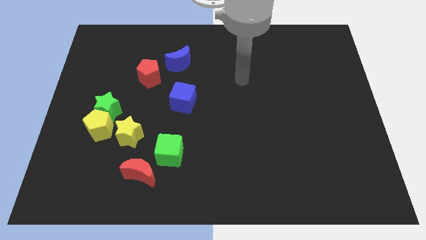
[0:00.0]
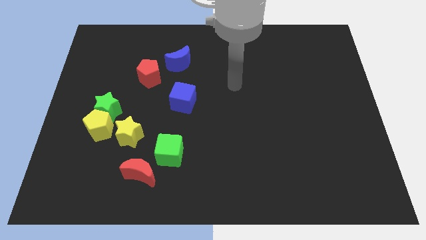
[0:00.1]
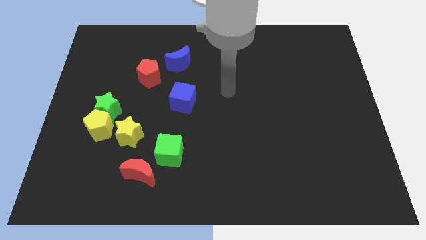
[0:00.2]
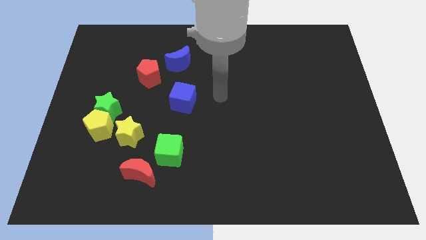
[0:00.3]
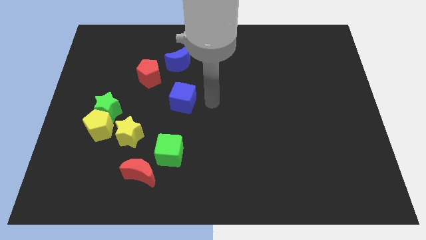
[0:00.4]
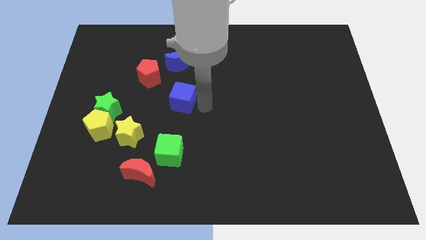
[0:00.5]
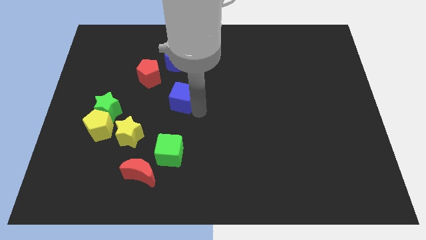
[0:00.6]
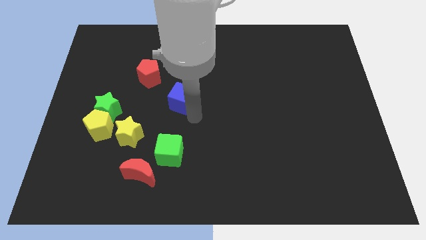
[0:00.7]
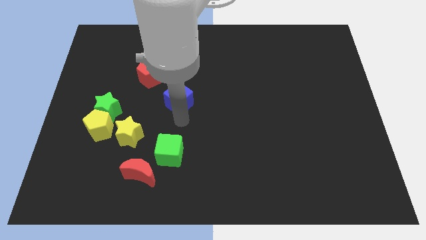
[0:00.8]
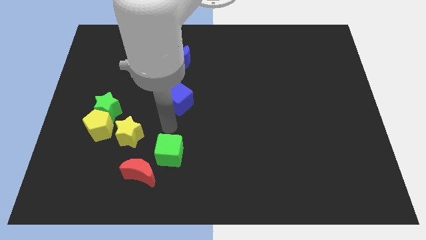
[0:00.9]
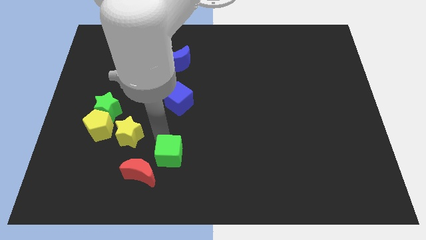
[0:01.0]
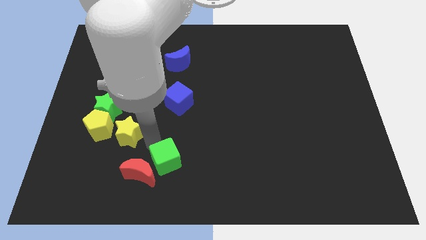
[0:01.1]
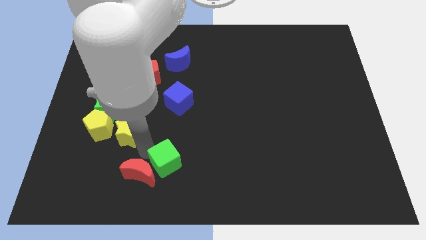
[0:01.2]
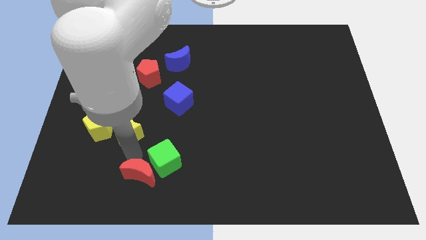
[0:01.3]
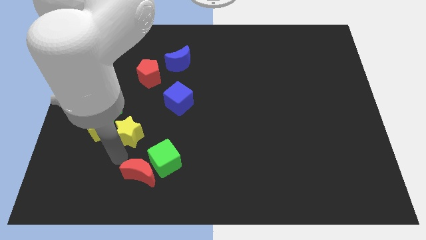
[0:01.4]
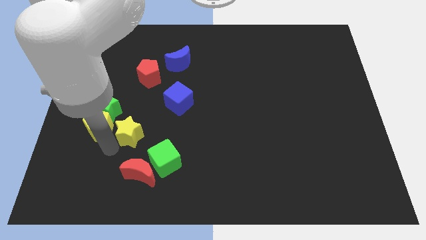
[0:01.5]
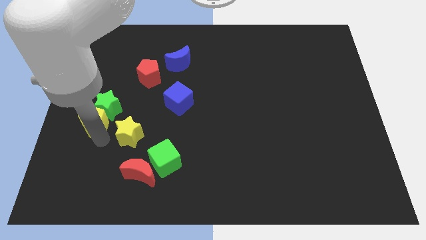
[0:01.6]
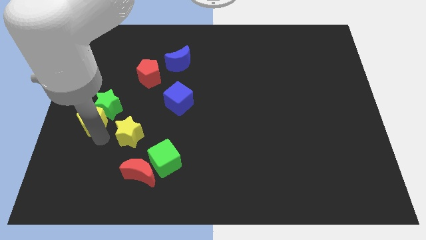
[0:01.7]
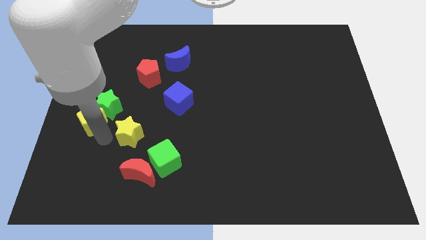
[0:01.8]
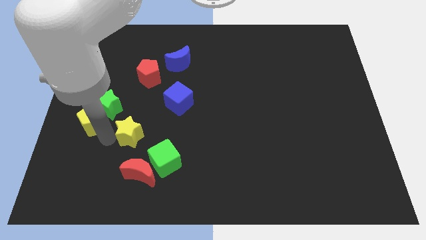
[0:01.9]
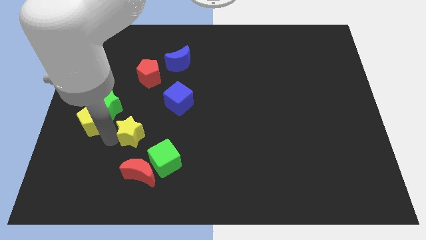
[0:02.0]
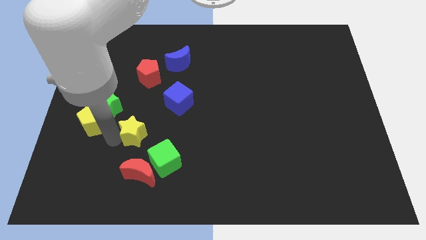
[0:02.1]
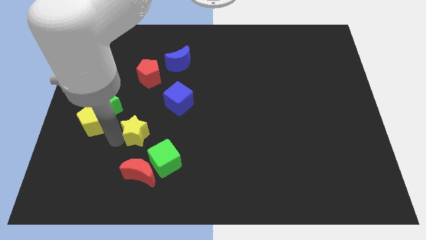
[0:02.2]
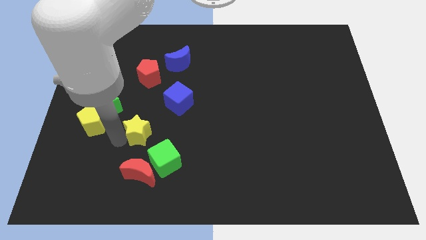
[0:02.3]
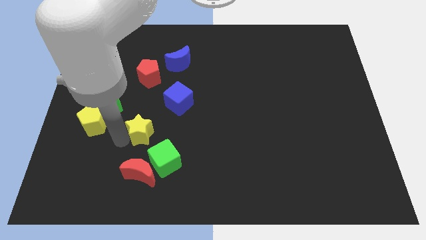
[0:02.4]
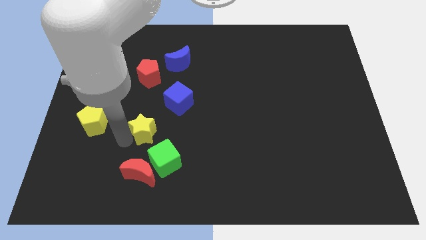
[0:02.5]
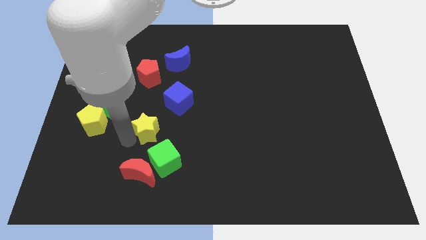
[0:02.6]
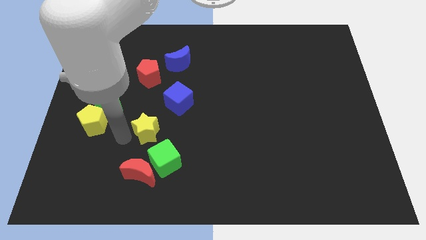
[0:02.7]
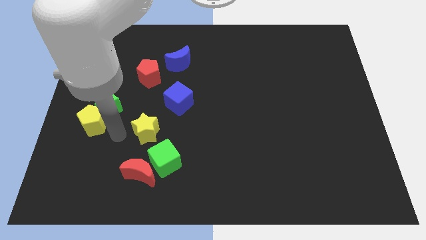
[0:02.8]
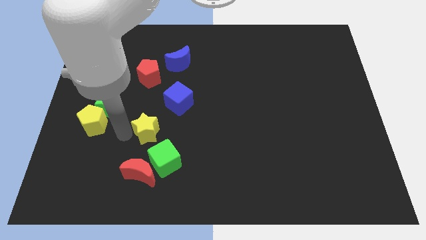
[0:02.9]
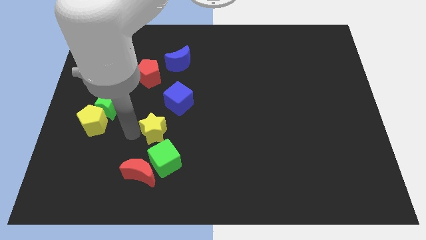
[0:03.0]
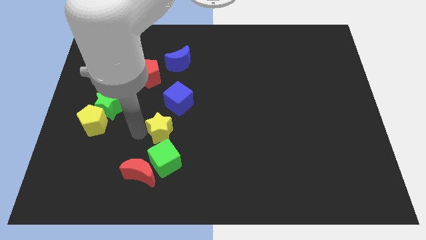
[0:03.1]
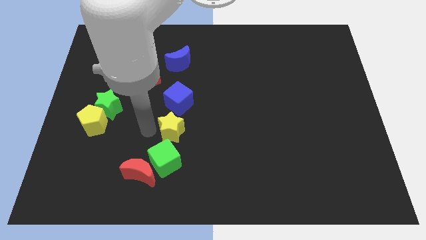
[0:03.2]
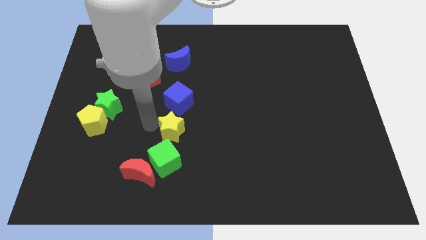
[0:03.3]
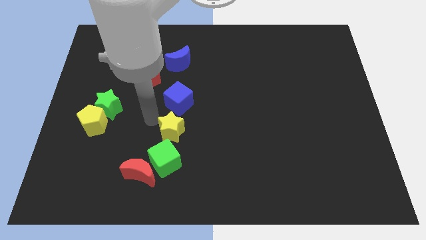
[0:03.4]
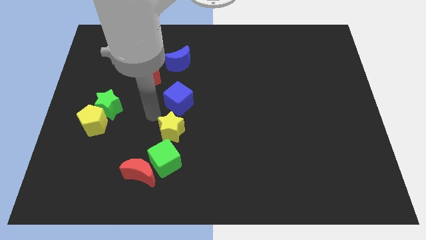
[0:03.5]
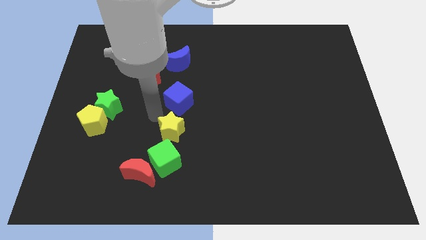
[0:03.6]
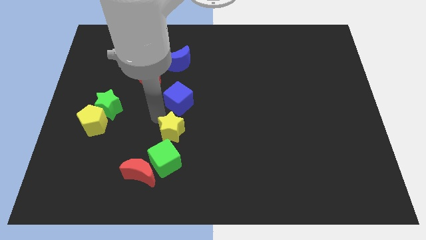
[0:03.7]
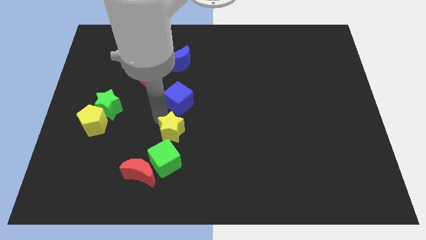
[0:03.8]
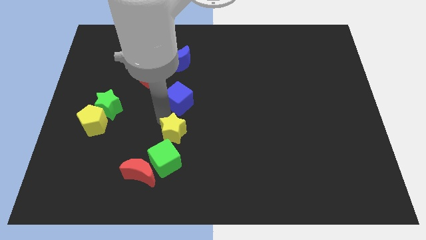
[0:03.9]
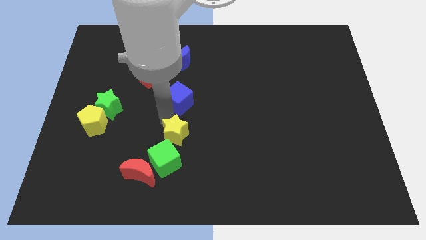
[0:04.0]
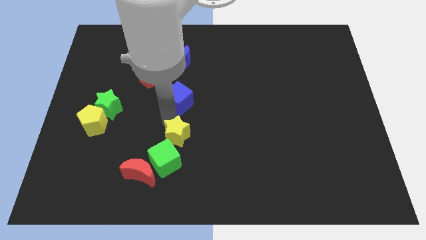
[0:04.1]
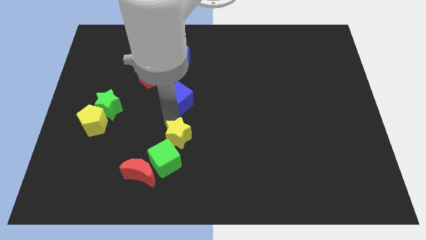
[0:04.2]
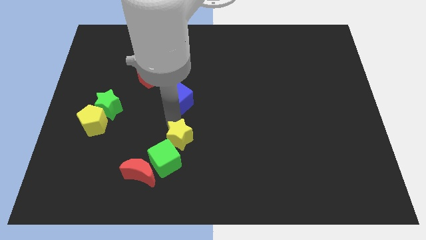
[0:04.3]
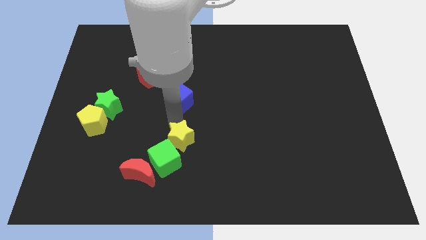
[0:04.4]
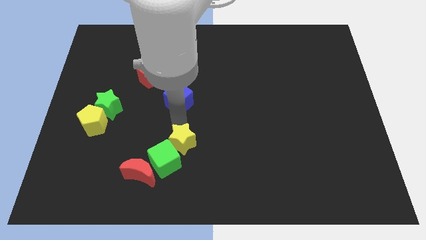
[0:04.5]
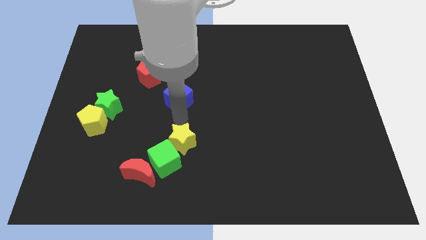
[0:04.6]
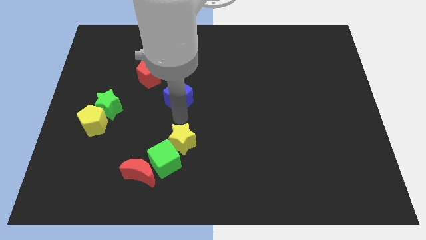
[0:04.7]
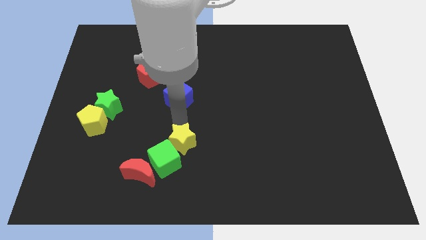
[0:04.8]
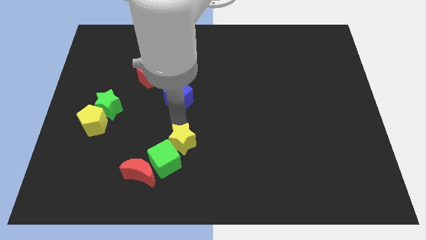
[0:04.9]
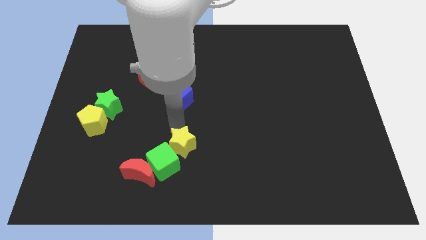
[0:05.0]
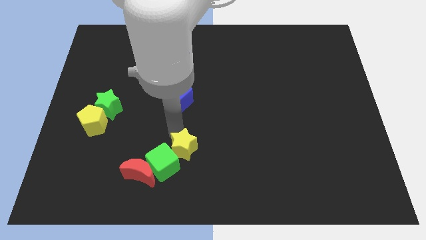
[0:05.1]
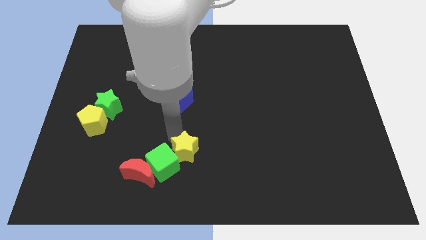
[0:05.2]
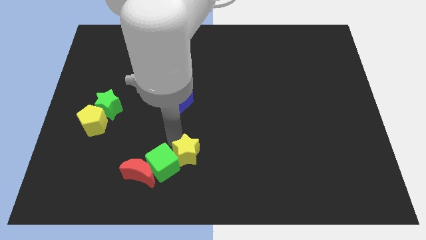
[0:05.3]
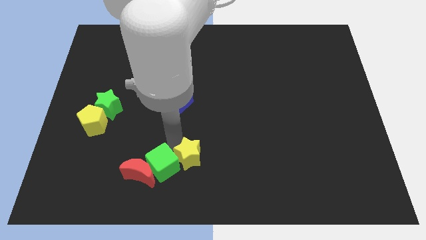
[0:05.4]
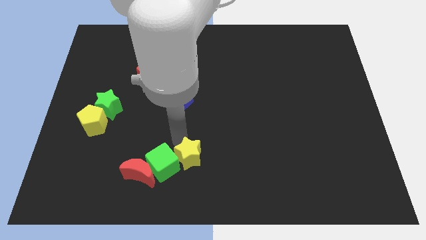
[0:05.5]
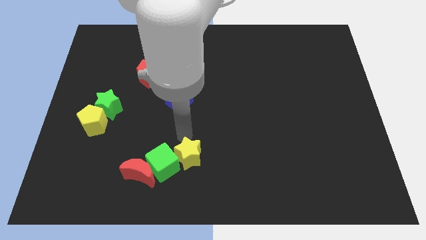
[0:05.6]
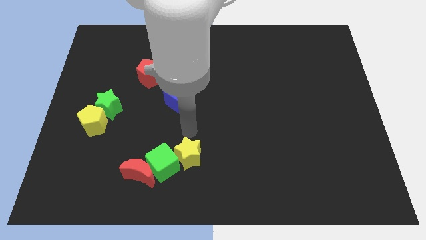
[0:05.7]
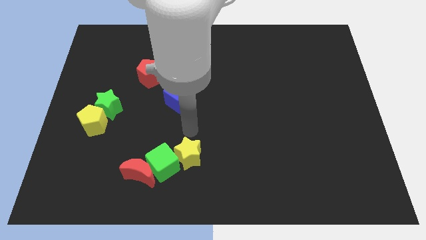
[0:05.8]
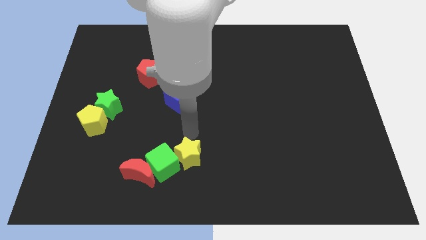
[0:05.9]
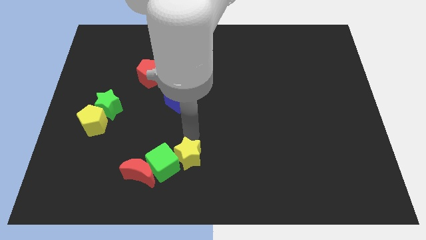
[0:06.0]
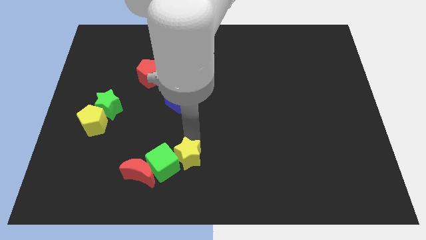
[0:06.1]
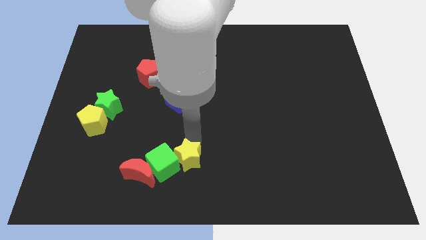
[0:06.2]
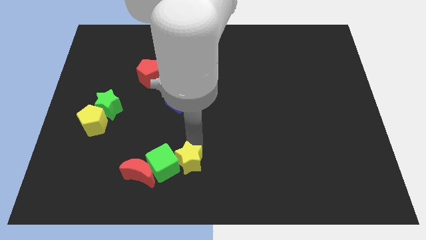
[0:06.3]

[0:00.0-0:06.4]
slide the yellow star to the bottom right of the green cube

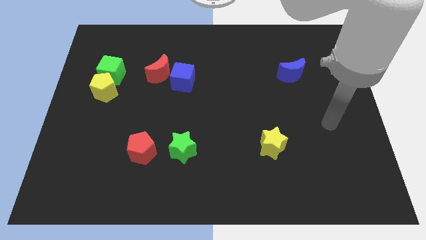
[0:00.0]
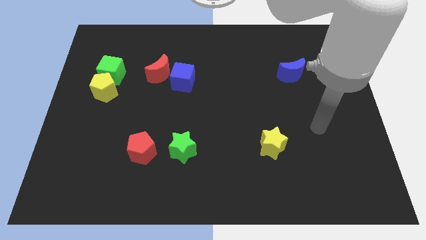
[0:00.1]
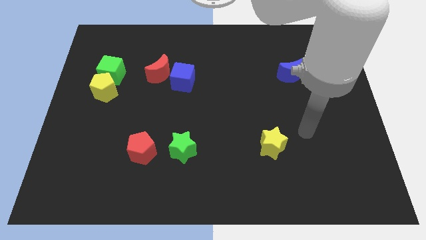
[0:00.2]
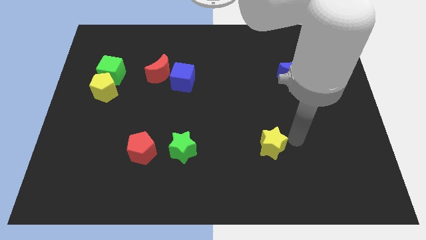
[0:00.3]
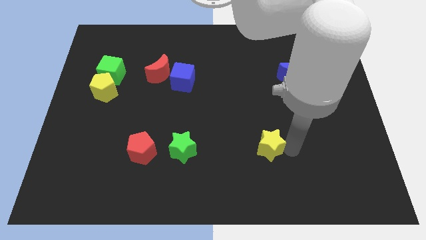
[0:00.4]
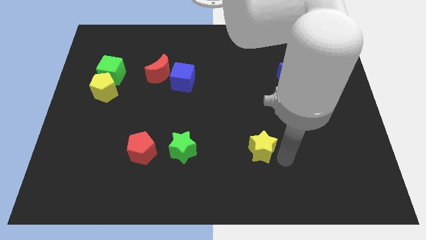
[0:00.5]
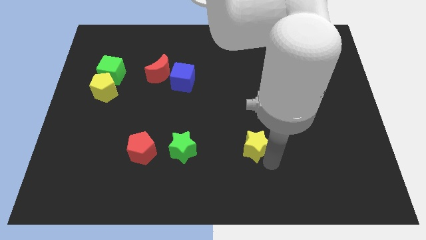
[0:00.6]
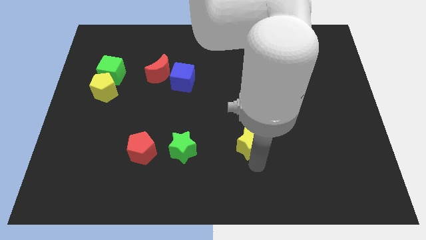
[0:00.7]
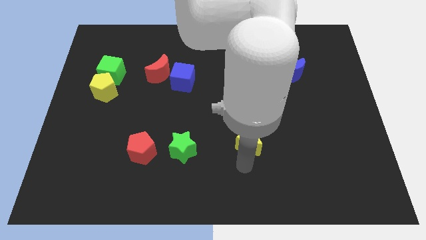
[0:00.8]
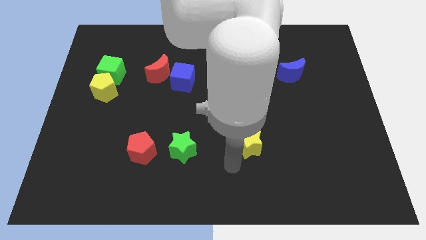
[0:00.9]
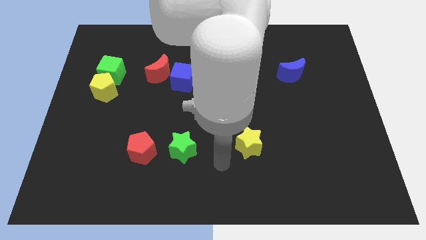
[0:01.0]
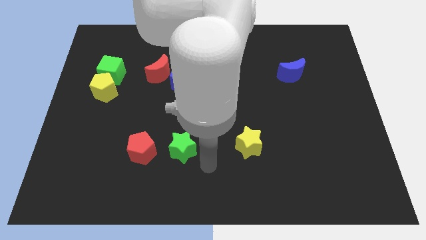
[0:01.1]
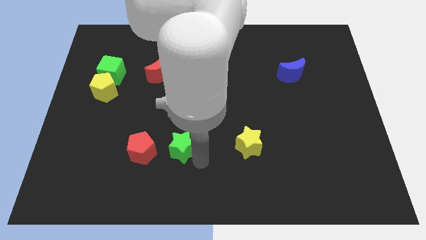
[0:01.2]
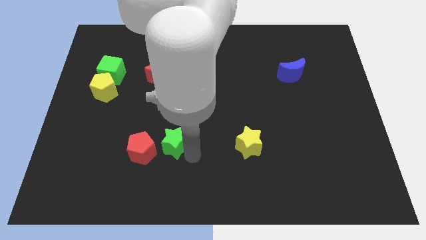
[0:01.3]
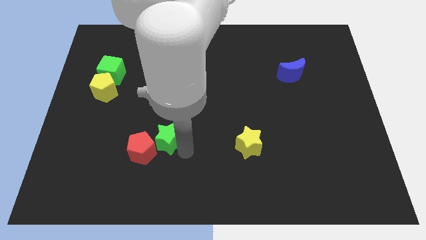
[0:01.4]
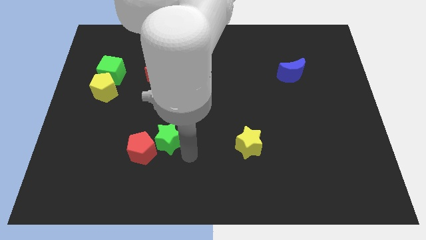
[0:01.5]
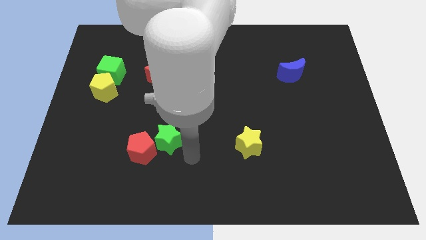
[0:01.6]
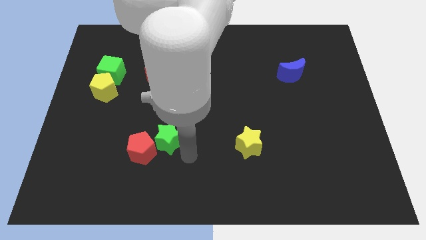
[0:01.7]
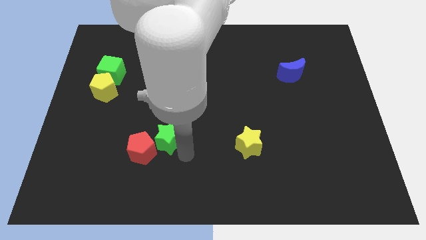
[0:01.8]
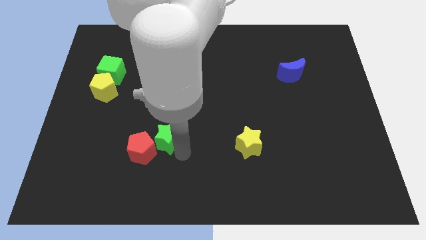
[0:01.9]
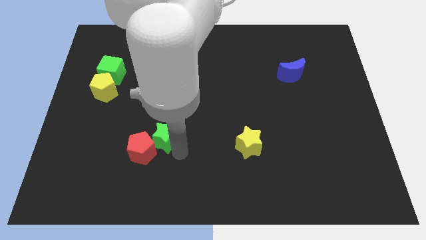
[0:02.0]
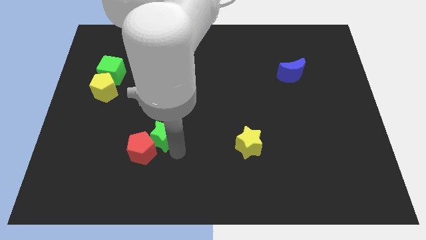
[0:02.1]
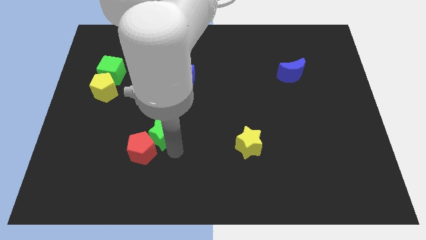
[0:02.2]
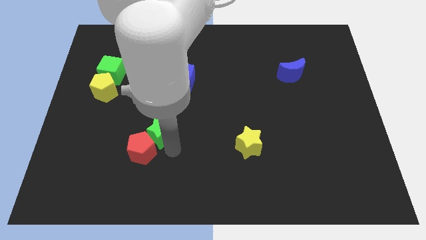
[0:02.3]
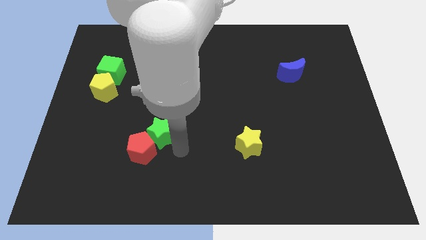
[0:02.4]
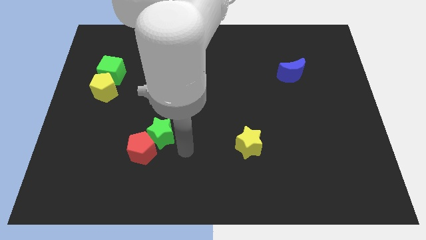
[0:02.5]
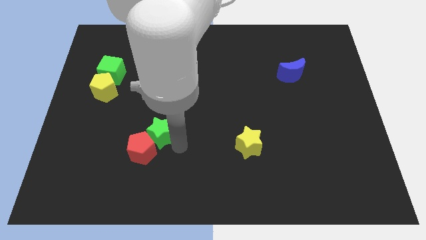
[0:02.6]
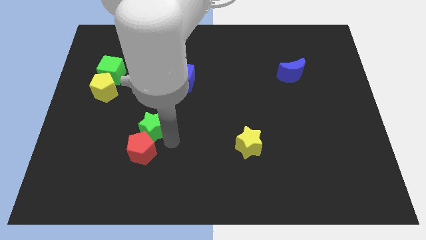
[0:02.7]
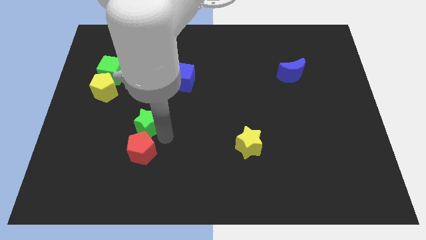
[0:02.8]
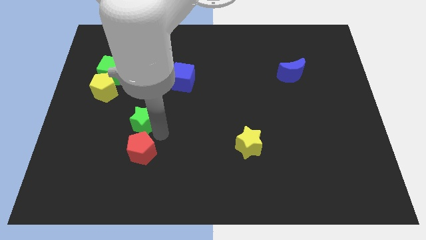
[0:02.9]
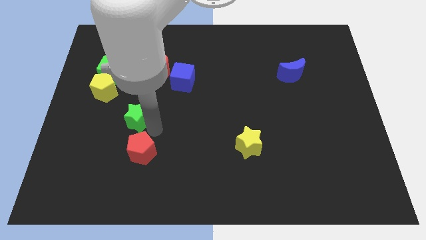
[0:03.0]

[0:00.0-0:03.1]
push the green star to the bottom right of the yellow pentagon
